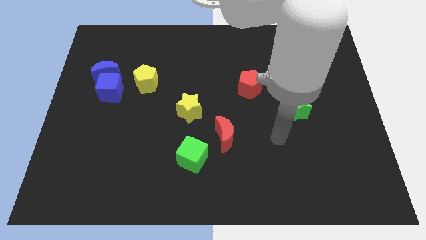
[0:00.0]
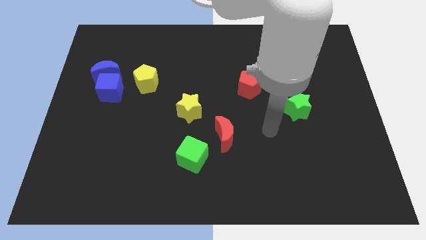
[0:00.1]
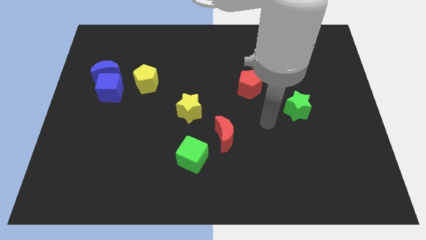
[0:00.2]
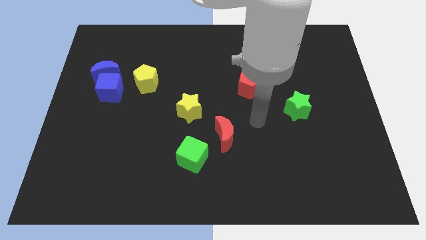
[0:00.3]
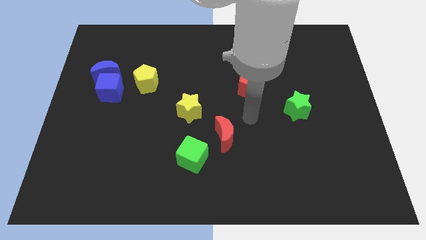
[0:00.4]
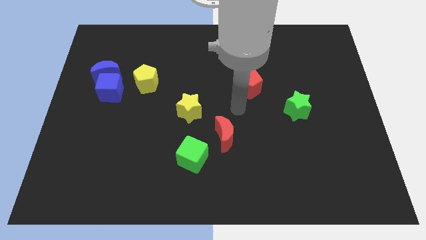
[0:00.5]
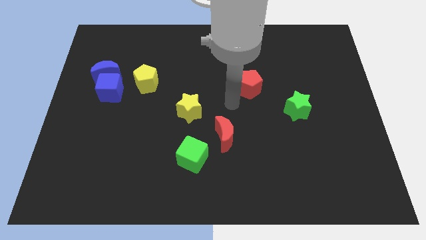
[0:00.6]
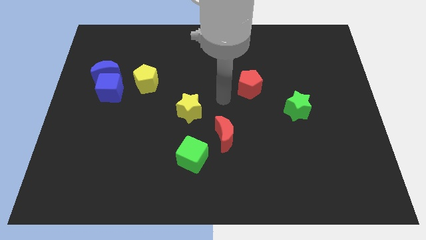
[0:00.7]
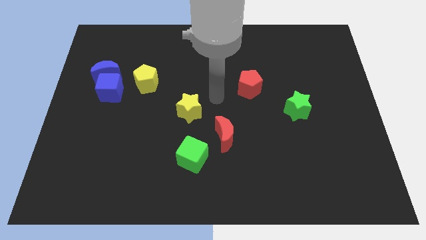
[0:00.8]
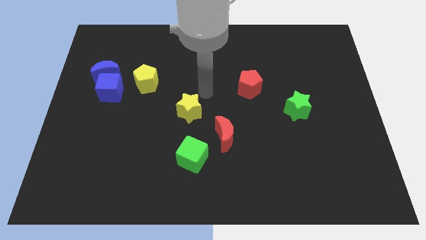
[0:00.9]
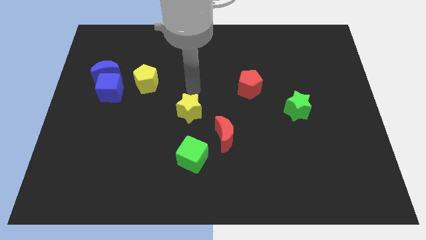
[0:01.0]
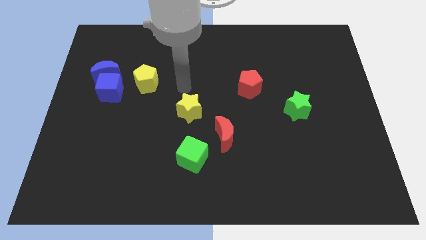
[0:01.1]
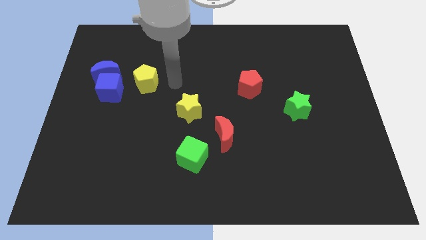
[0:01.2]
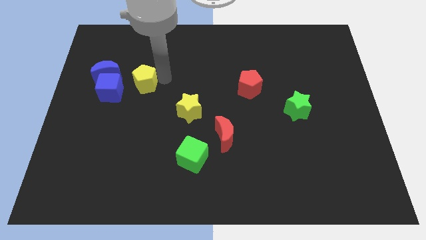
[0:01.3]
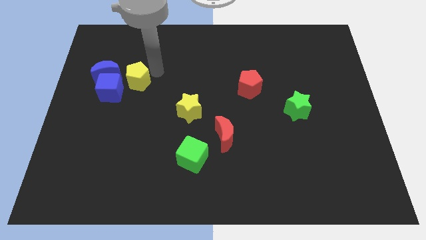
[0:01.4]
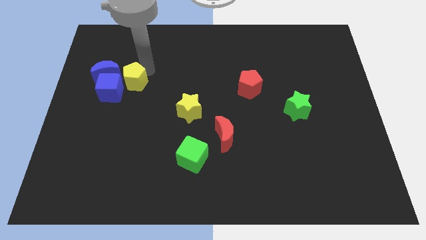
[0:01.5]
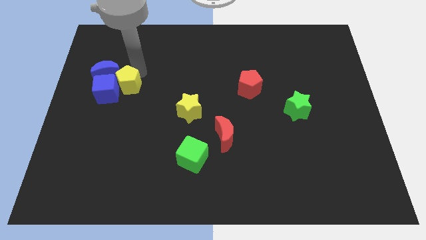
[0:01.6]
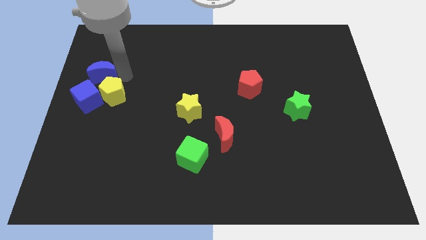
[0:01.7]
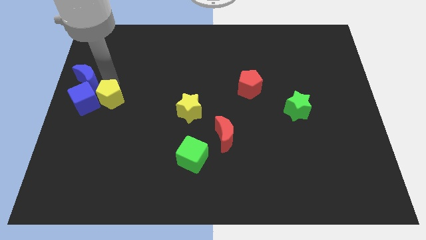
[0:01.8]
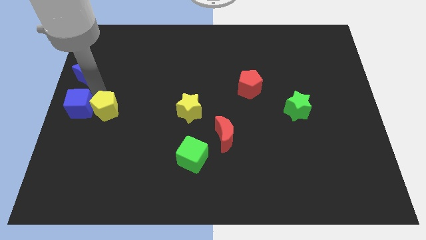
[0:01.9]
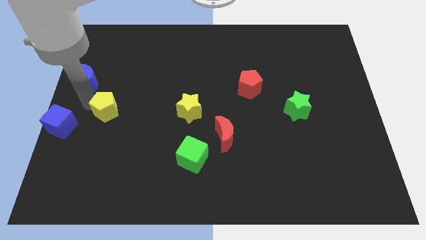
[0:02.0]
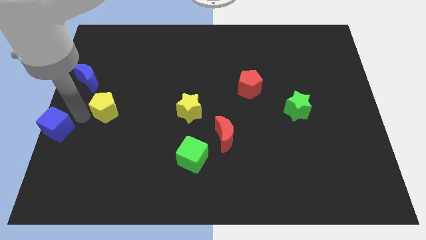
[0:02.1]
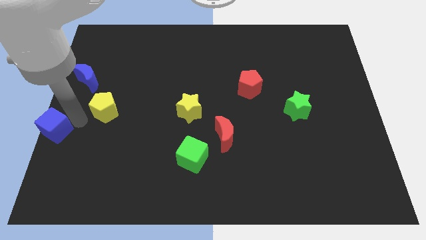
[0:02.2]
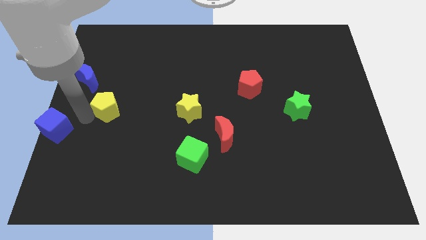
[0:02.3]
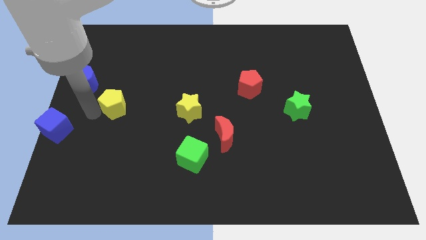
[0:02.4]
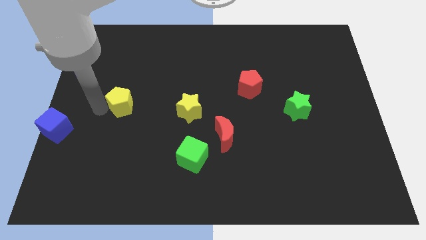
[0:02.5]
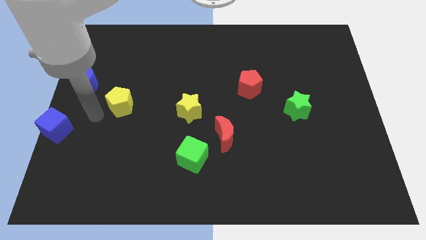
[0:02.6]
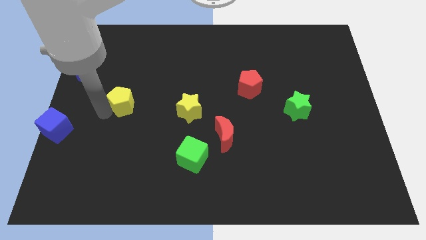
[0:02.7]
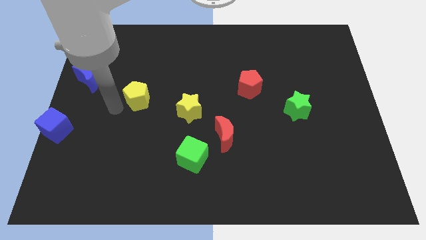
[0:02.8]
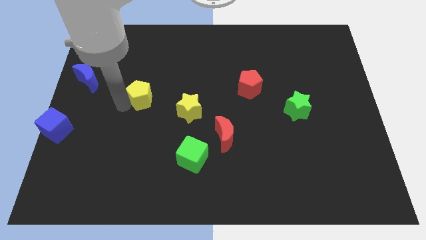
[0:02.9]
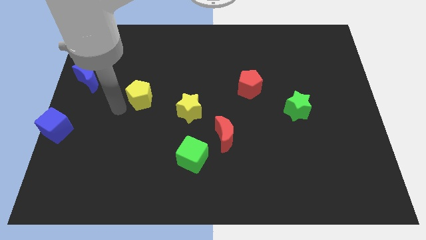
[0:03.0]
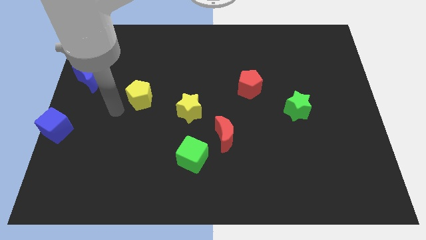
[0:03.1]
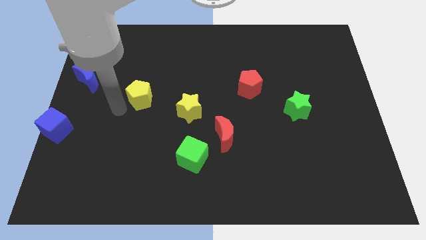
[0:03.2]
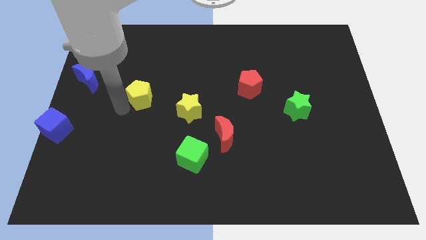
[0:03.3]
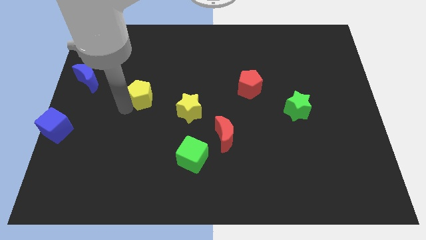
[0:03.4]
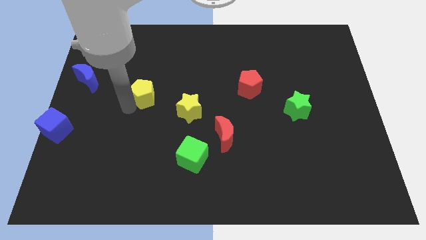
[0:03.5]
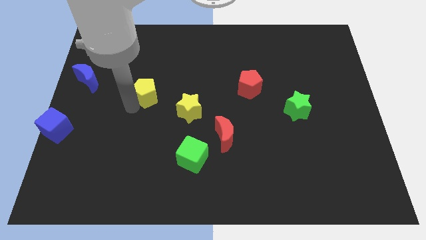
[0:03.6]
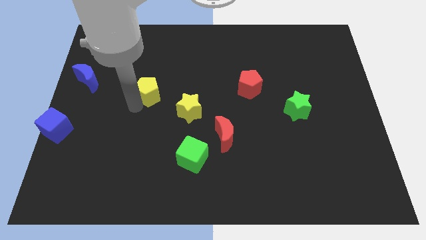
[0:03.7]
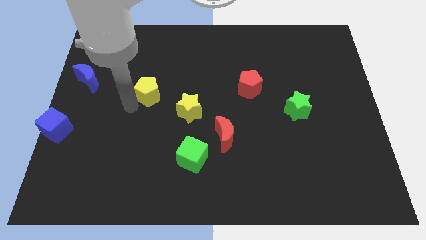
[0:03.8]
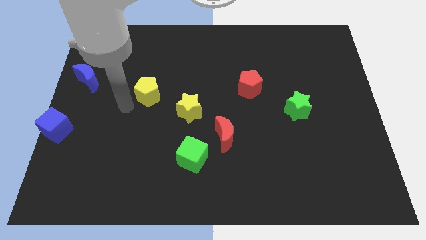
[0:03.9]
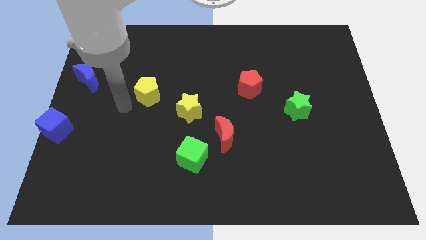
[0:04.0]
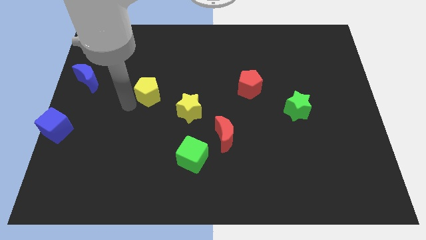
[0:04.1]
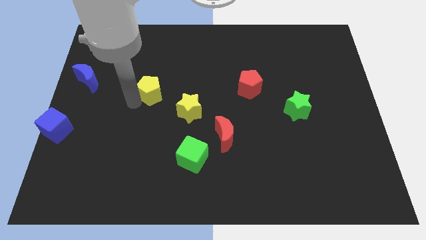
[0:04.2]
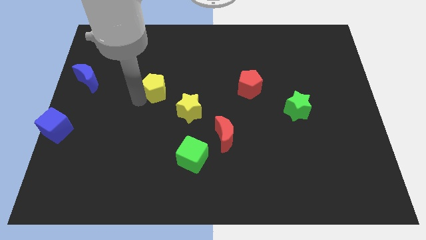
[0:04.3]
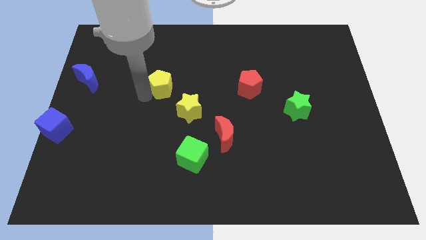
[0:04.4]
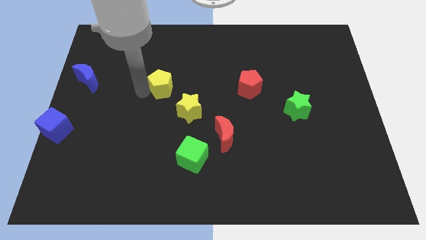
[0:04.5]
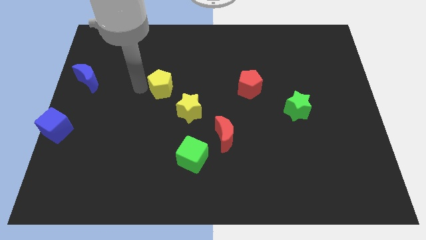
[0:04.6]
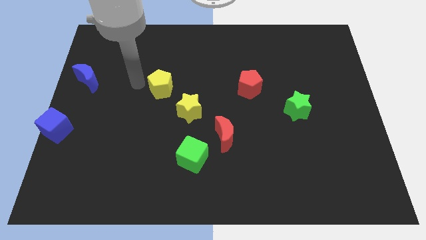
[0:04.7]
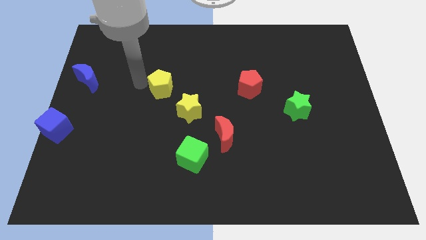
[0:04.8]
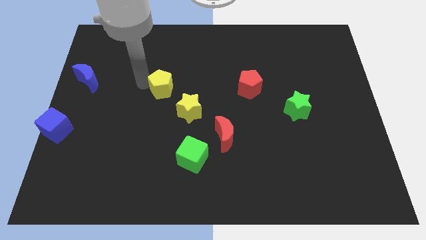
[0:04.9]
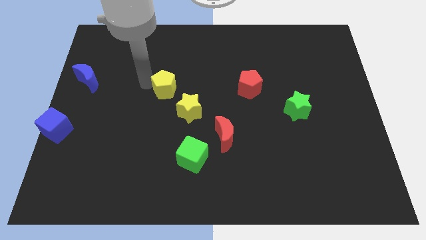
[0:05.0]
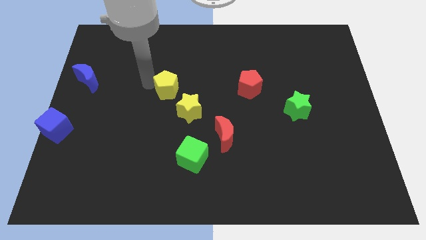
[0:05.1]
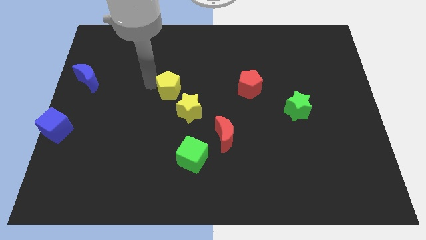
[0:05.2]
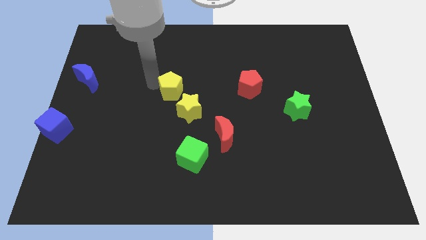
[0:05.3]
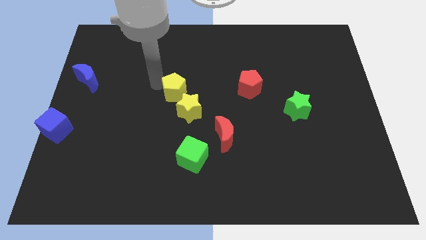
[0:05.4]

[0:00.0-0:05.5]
move the yellow pentagon a bit diagonally downwards and right

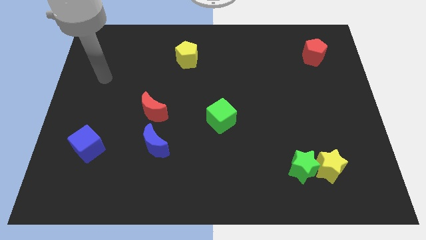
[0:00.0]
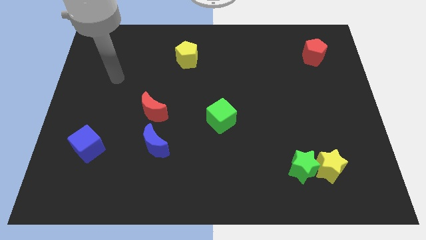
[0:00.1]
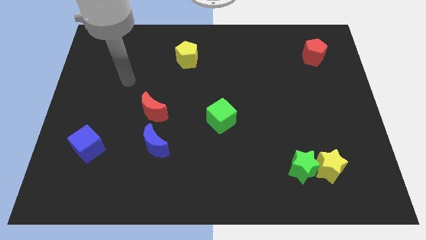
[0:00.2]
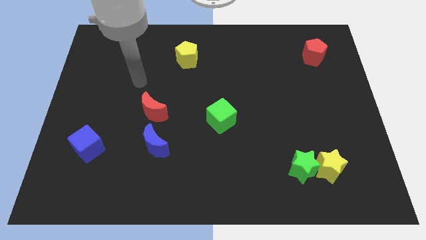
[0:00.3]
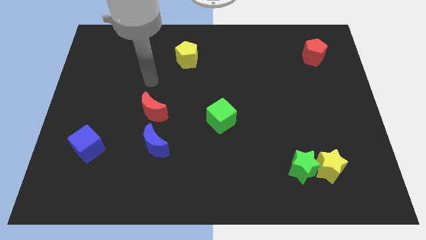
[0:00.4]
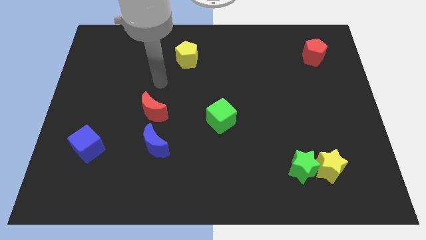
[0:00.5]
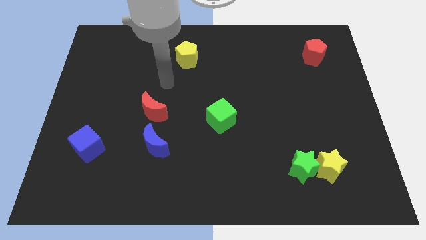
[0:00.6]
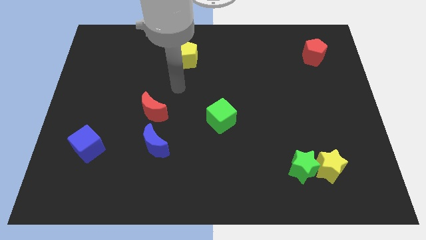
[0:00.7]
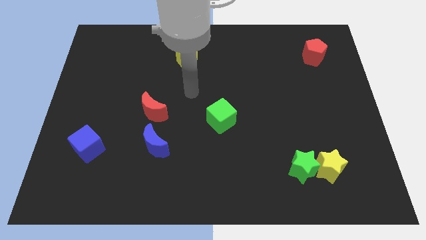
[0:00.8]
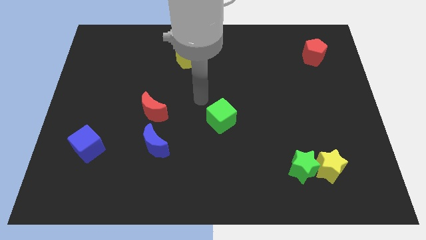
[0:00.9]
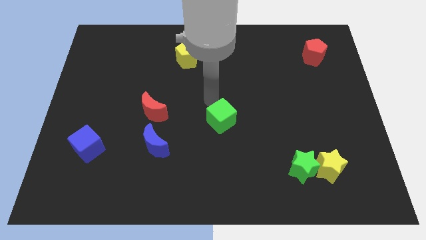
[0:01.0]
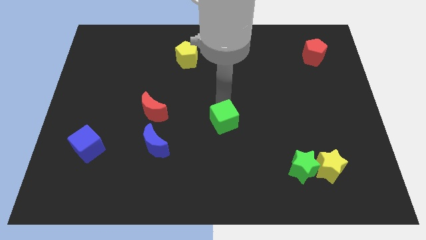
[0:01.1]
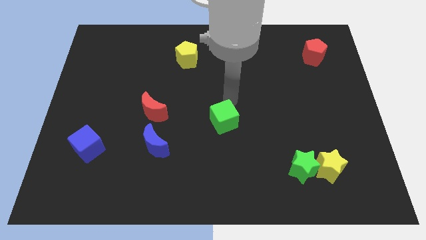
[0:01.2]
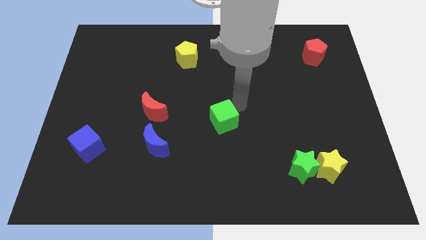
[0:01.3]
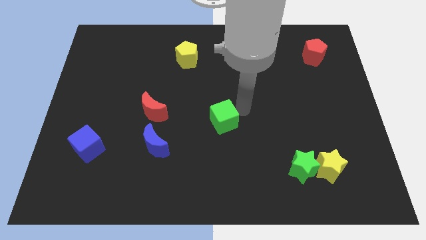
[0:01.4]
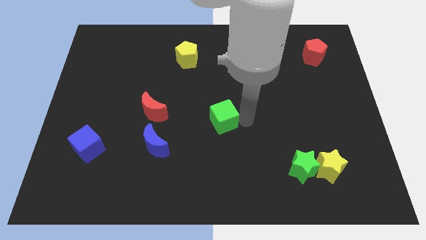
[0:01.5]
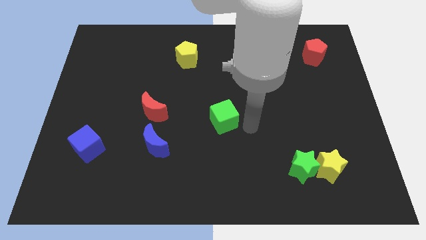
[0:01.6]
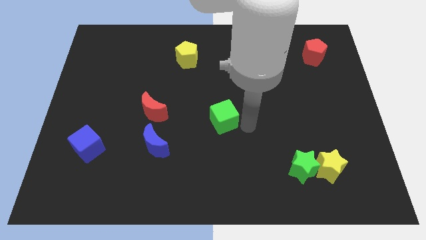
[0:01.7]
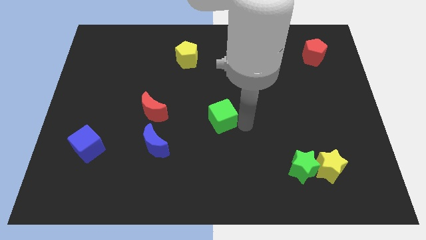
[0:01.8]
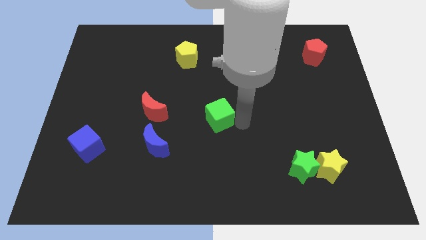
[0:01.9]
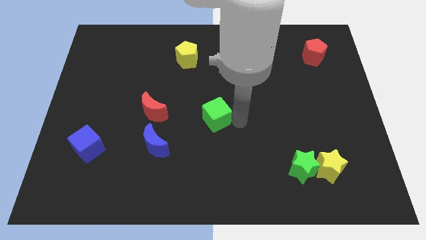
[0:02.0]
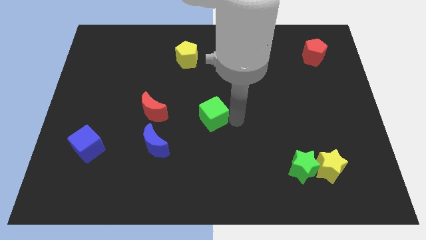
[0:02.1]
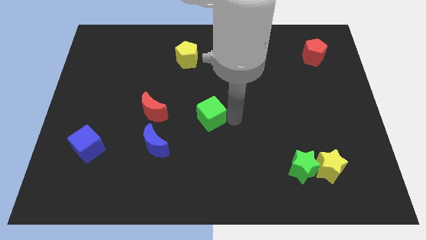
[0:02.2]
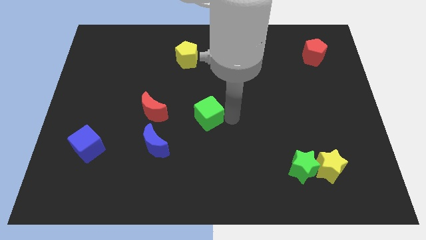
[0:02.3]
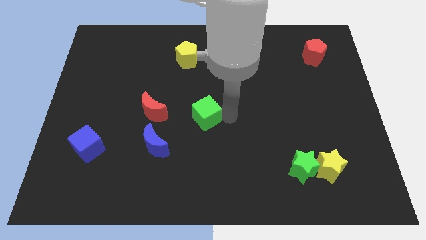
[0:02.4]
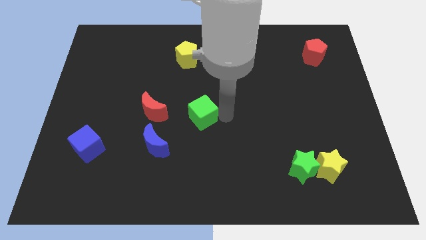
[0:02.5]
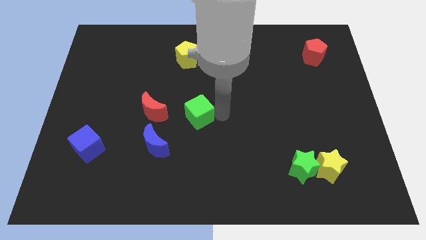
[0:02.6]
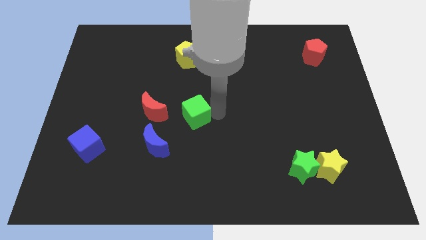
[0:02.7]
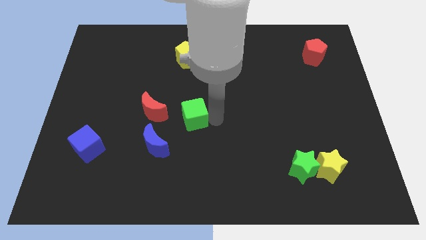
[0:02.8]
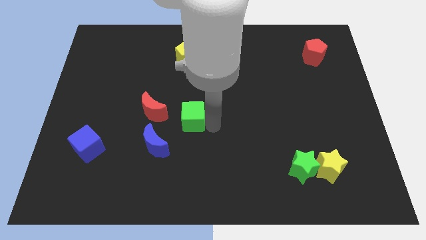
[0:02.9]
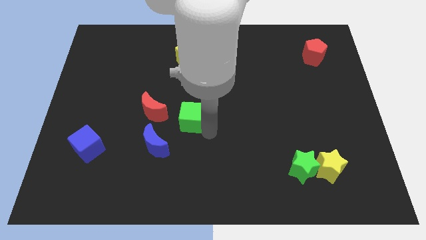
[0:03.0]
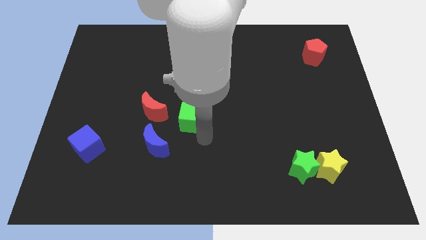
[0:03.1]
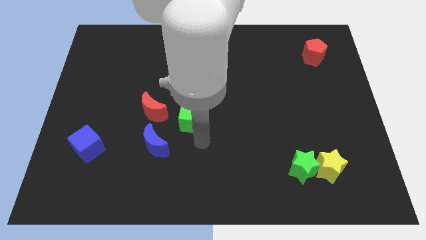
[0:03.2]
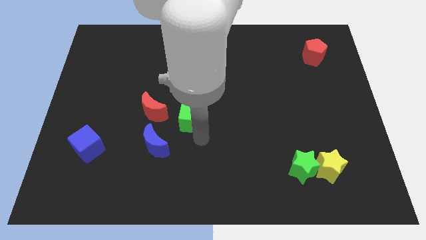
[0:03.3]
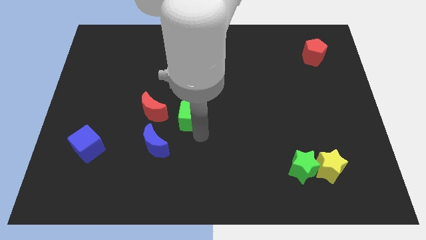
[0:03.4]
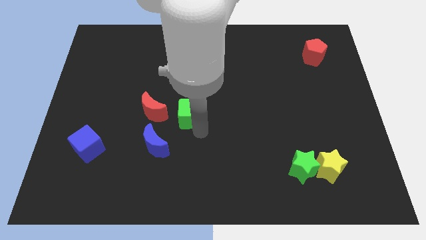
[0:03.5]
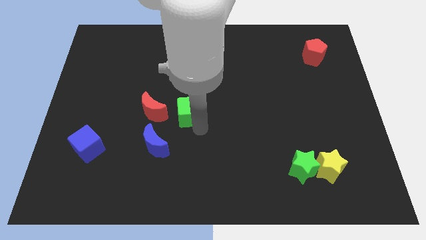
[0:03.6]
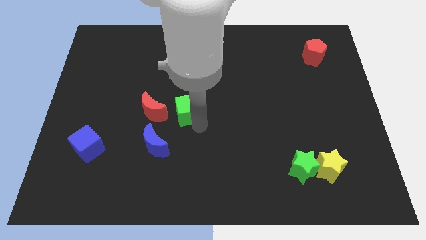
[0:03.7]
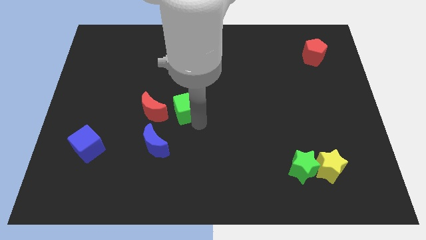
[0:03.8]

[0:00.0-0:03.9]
slightly move the green cube upwards and to the left
